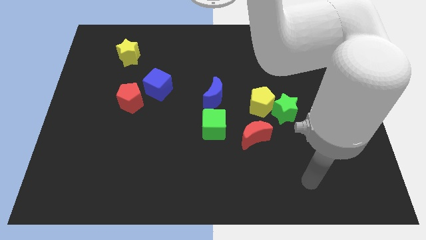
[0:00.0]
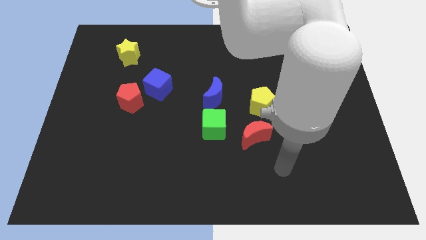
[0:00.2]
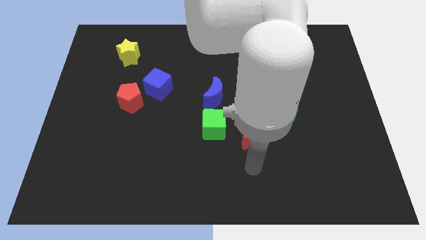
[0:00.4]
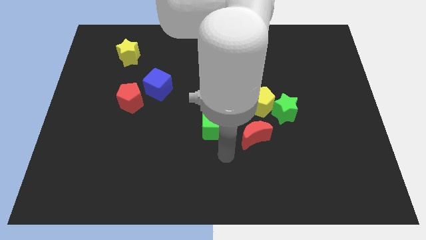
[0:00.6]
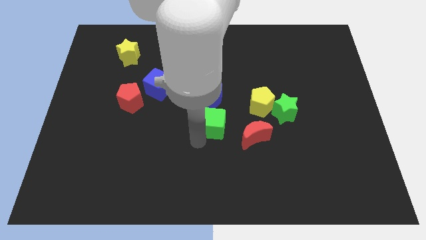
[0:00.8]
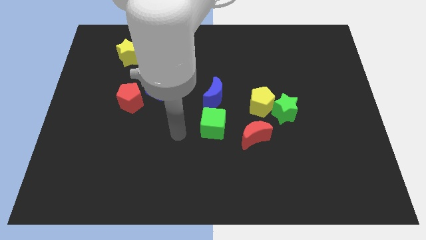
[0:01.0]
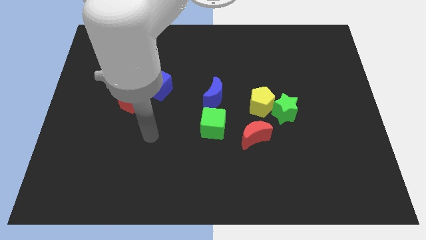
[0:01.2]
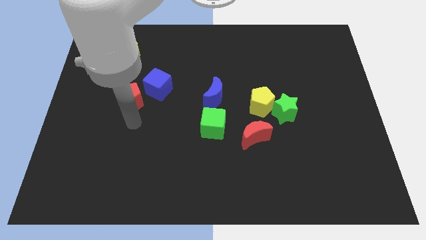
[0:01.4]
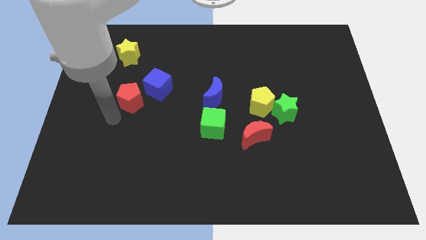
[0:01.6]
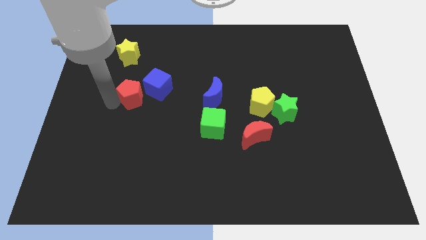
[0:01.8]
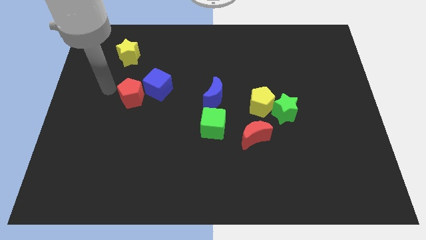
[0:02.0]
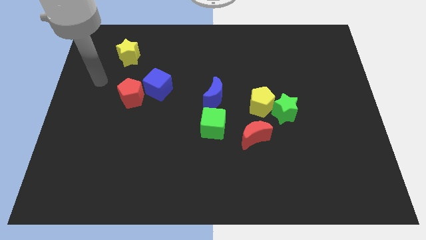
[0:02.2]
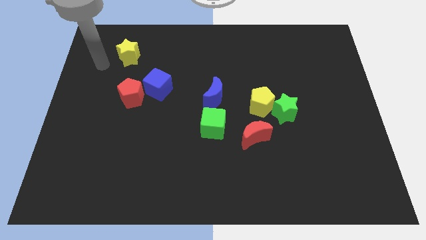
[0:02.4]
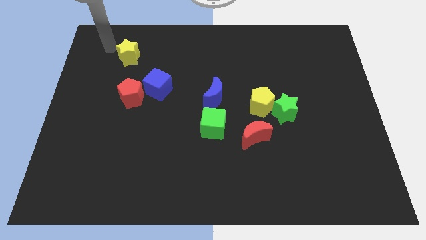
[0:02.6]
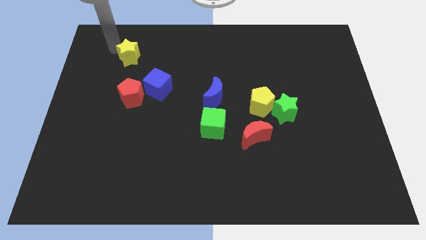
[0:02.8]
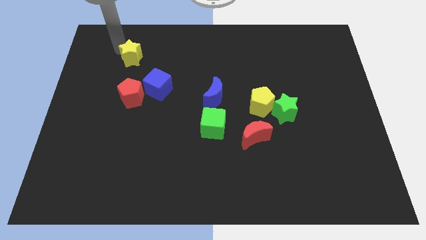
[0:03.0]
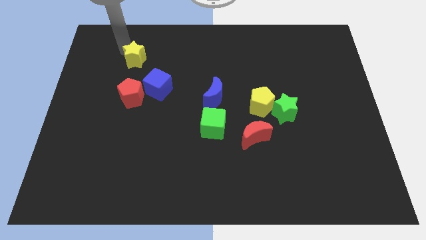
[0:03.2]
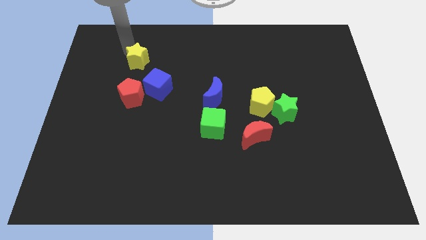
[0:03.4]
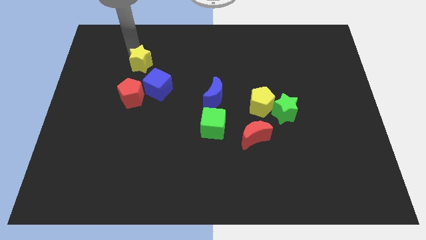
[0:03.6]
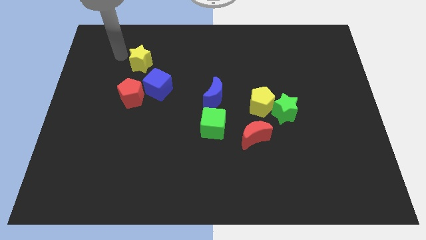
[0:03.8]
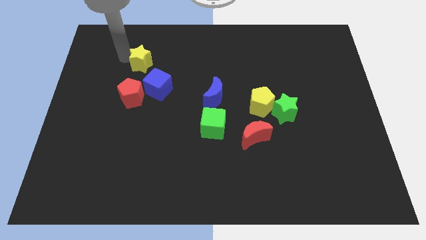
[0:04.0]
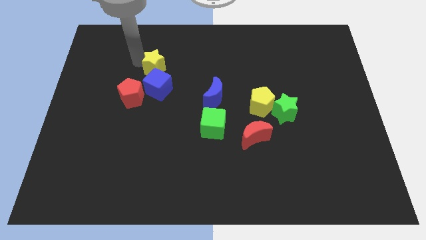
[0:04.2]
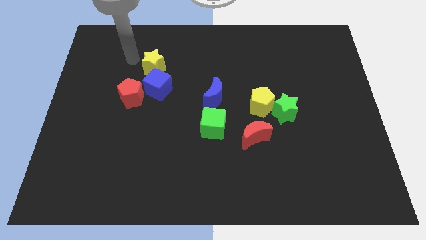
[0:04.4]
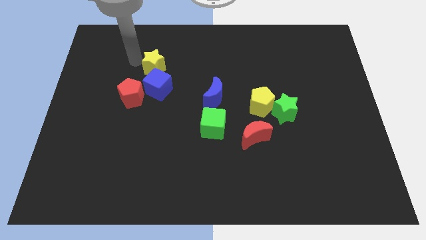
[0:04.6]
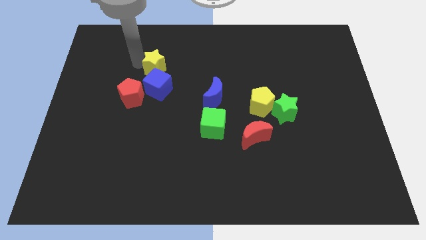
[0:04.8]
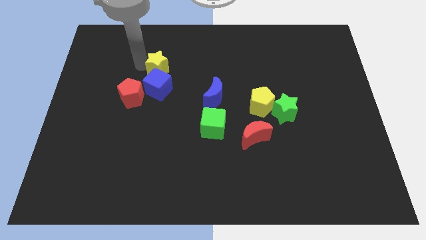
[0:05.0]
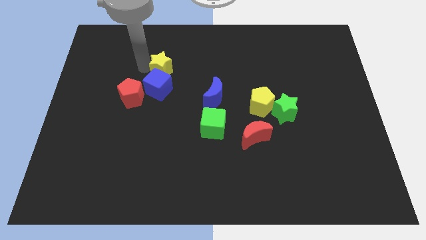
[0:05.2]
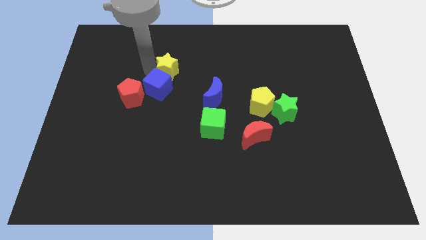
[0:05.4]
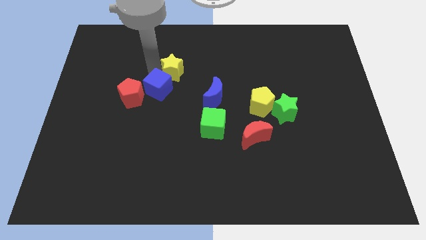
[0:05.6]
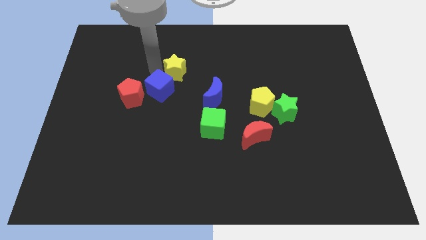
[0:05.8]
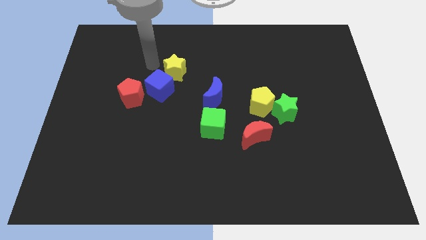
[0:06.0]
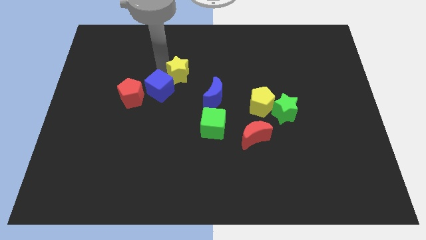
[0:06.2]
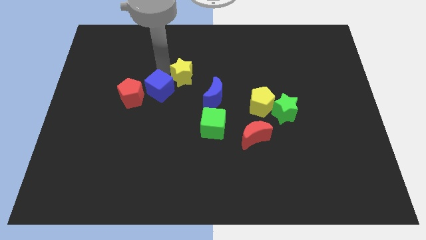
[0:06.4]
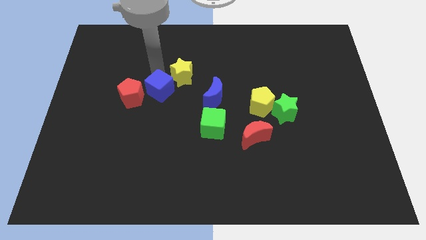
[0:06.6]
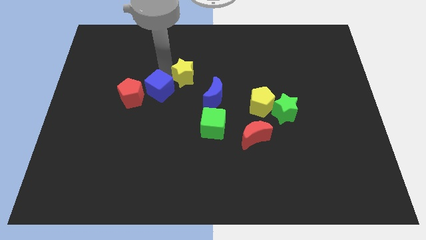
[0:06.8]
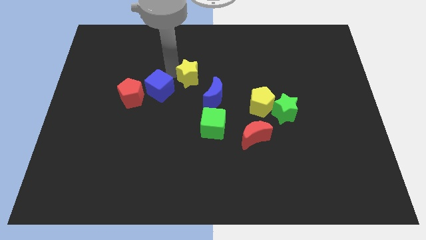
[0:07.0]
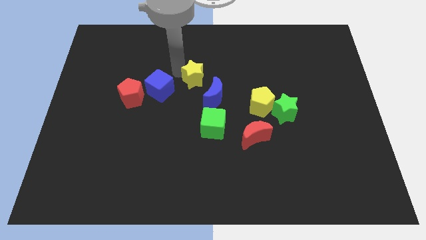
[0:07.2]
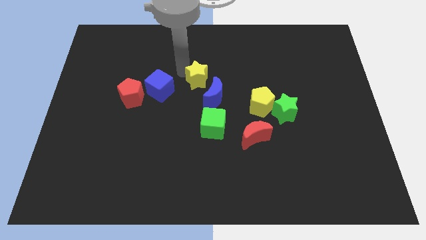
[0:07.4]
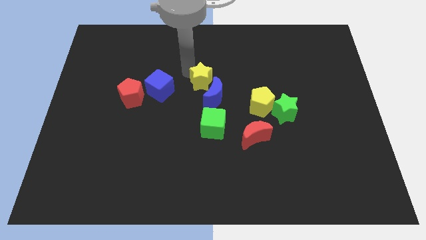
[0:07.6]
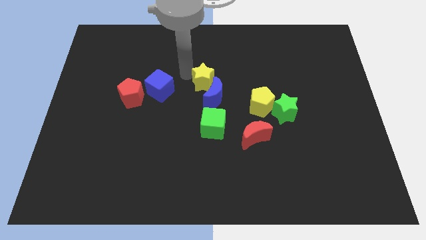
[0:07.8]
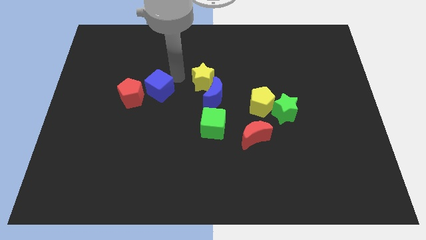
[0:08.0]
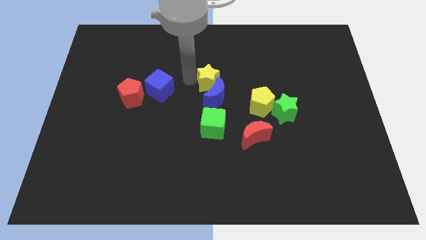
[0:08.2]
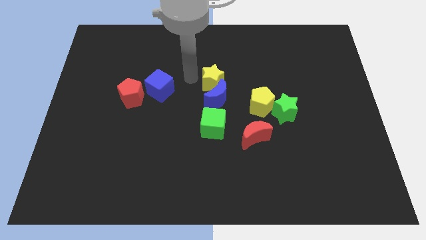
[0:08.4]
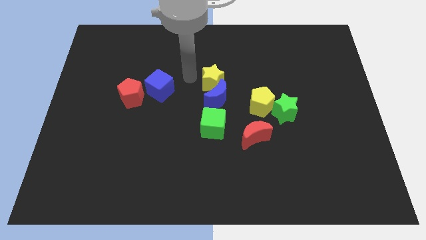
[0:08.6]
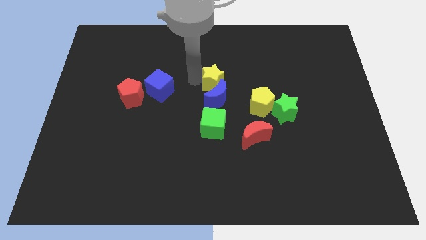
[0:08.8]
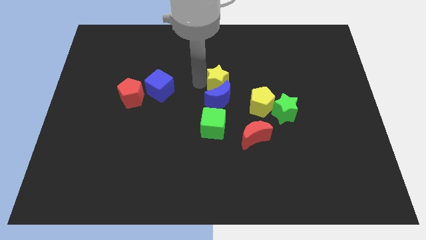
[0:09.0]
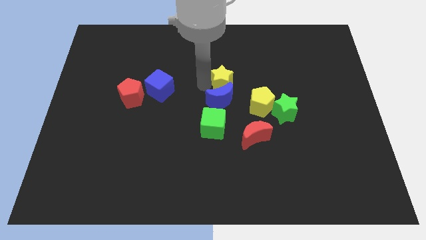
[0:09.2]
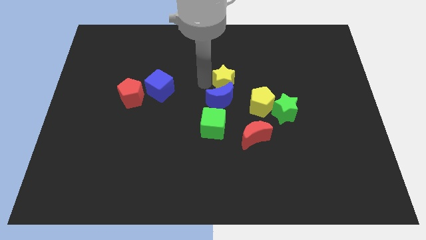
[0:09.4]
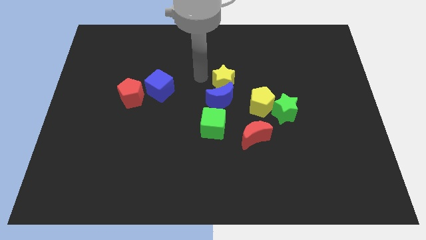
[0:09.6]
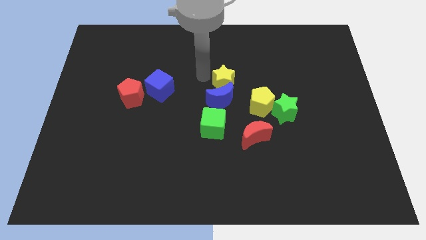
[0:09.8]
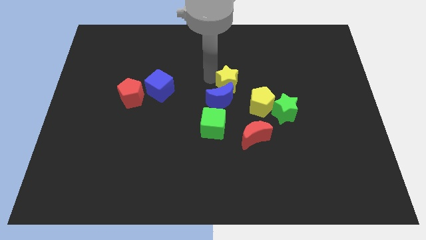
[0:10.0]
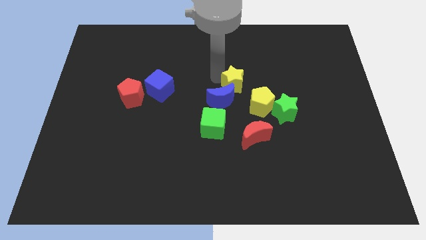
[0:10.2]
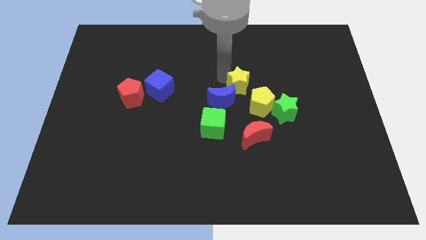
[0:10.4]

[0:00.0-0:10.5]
move the yellow star to the top side of the red moon
